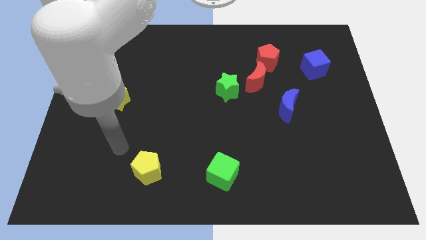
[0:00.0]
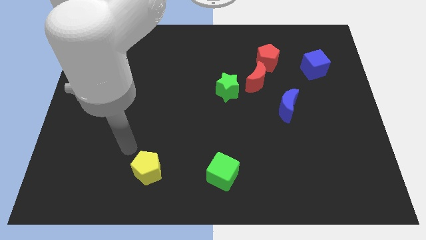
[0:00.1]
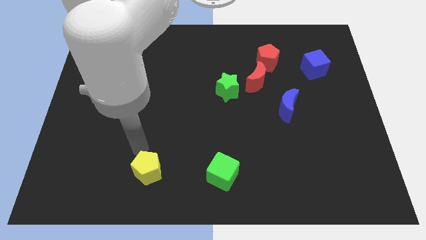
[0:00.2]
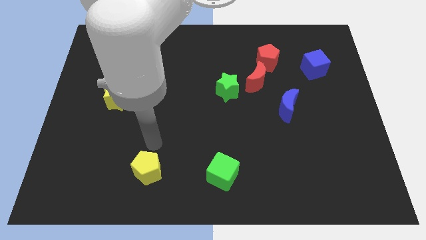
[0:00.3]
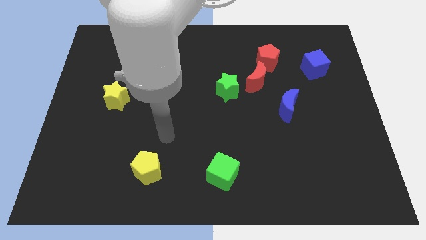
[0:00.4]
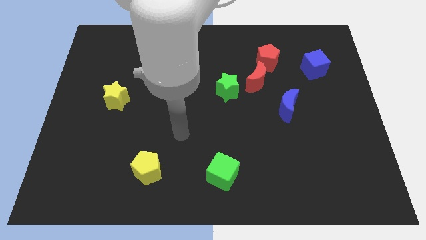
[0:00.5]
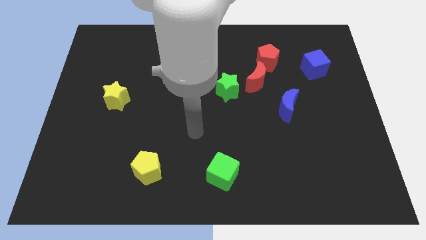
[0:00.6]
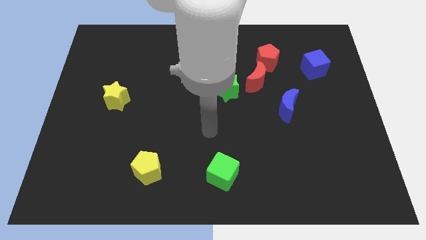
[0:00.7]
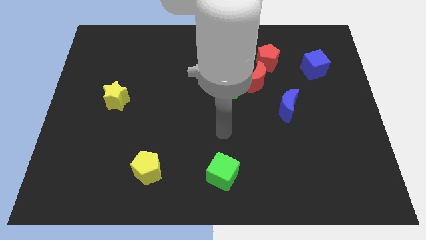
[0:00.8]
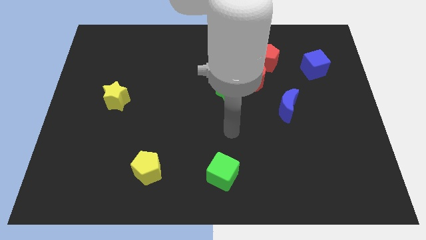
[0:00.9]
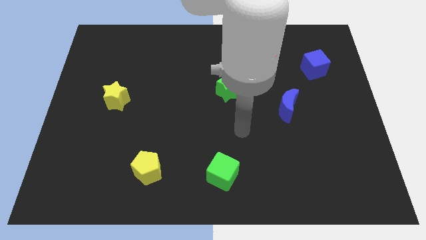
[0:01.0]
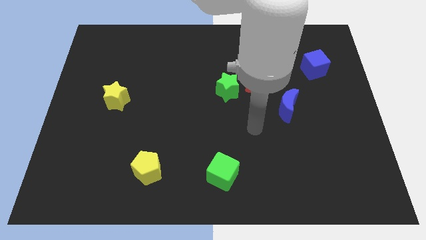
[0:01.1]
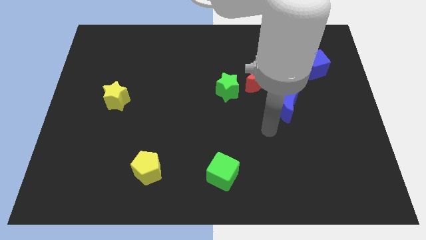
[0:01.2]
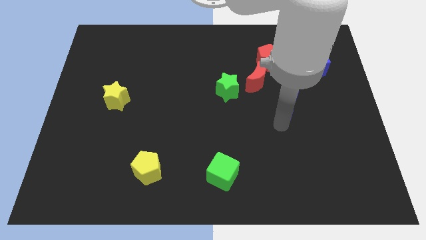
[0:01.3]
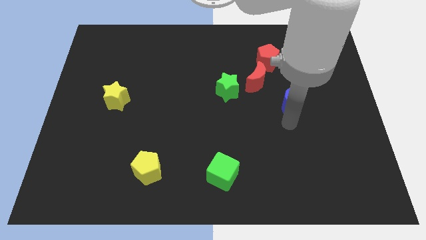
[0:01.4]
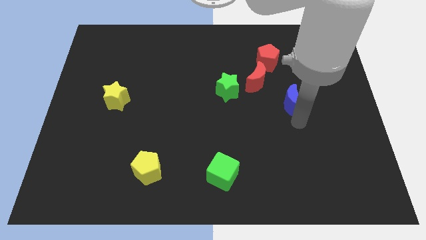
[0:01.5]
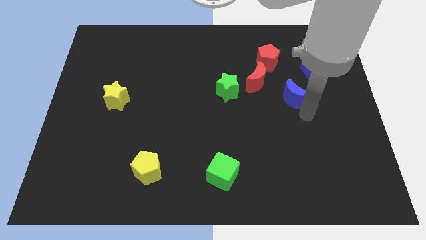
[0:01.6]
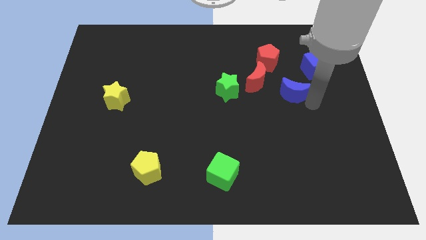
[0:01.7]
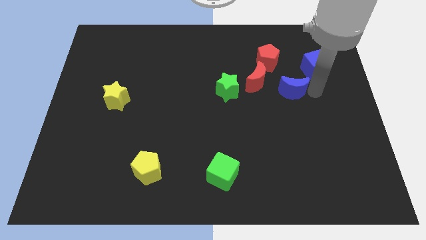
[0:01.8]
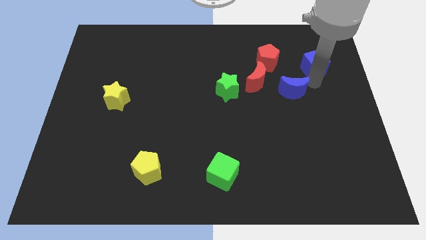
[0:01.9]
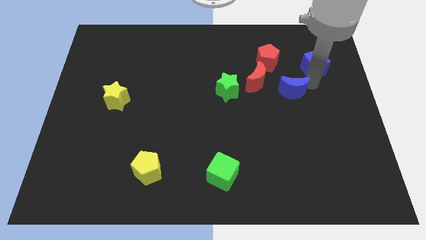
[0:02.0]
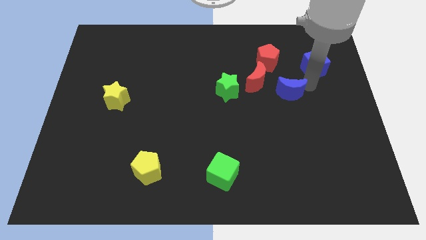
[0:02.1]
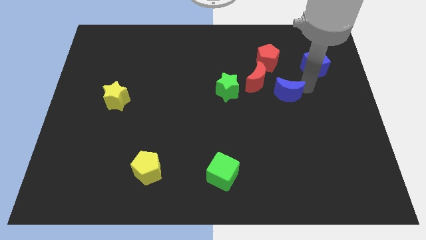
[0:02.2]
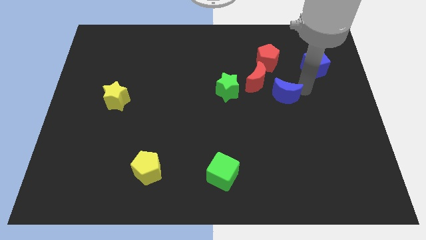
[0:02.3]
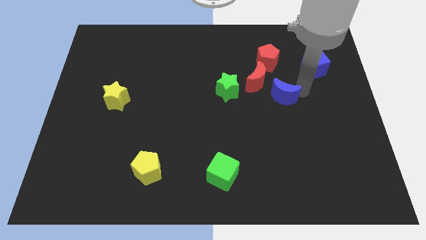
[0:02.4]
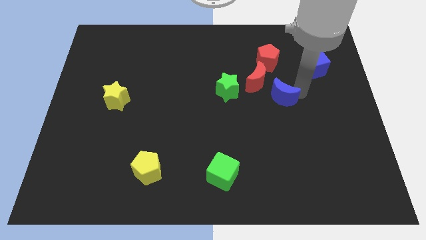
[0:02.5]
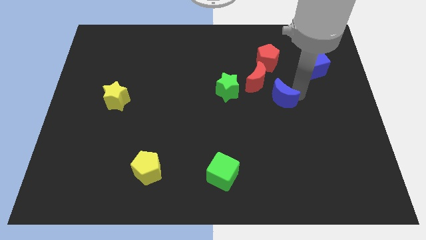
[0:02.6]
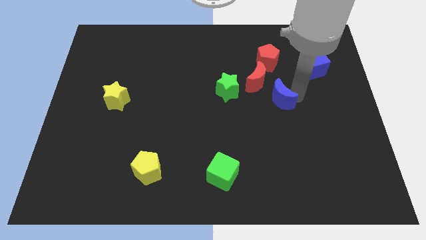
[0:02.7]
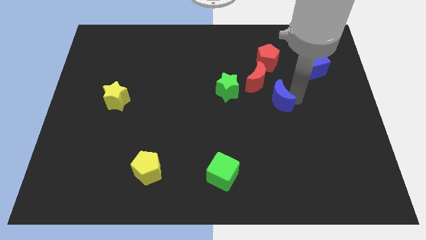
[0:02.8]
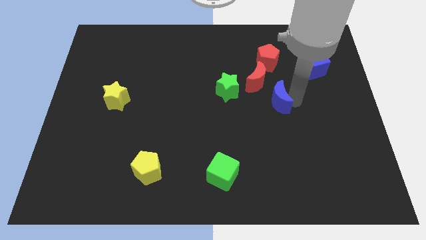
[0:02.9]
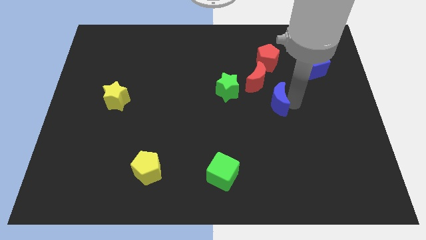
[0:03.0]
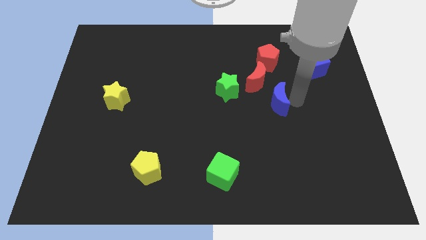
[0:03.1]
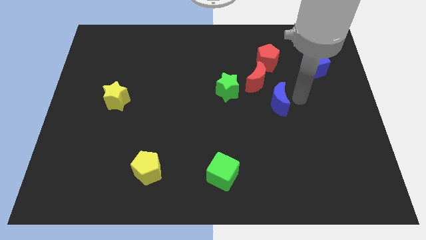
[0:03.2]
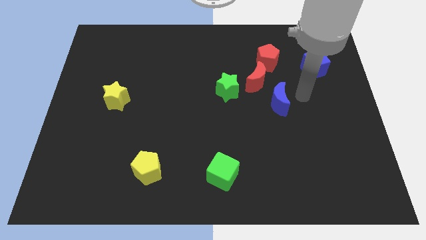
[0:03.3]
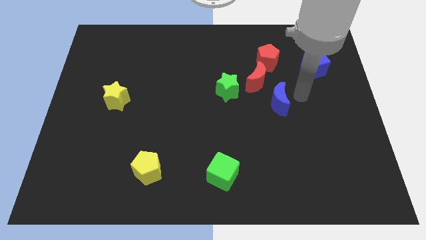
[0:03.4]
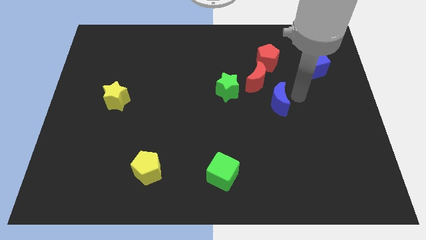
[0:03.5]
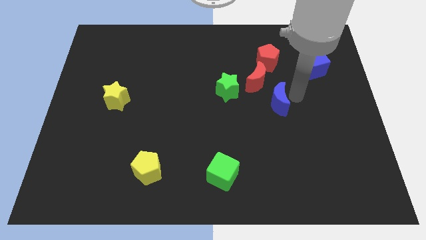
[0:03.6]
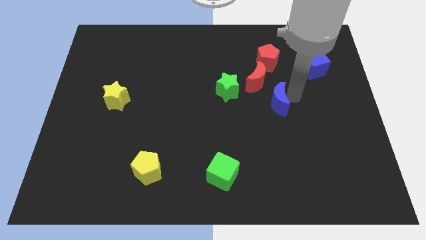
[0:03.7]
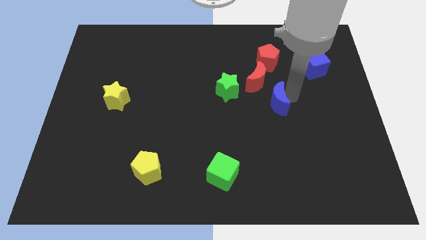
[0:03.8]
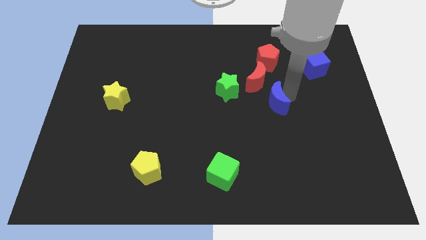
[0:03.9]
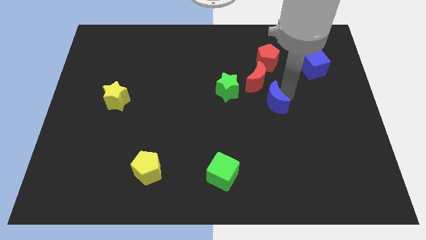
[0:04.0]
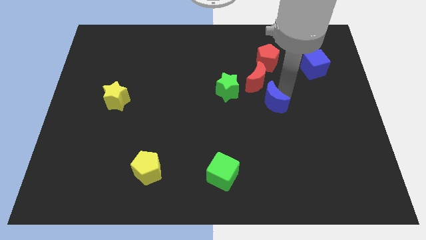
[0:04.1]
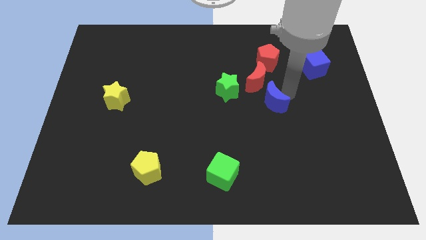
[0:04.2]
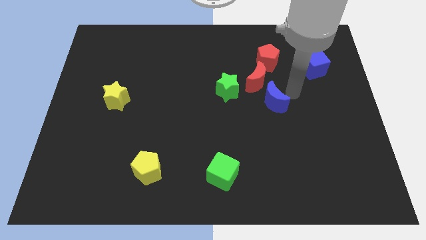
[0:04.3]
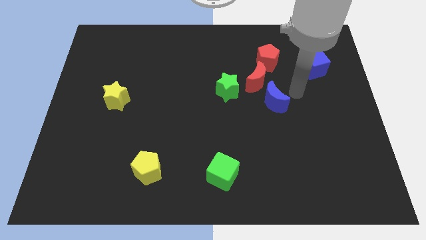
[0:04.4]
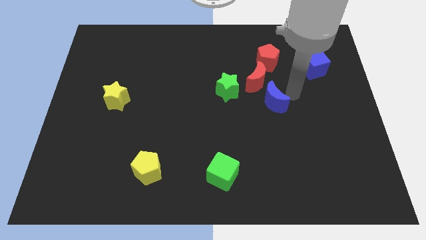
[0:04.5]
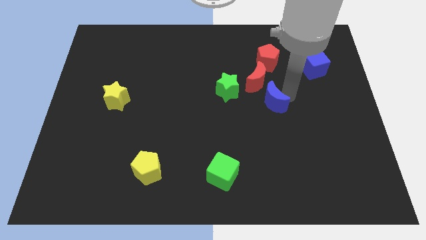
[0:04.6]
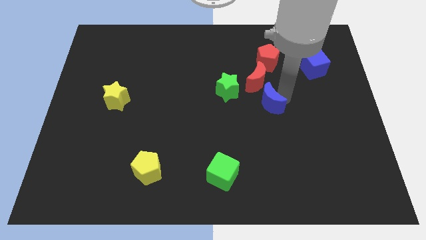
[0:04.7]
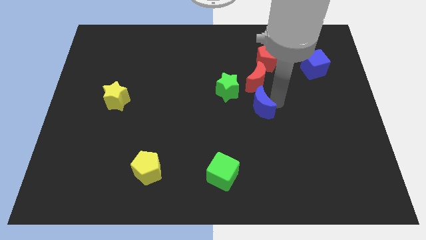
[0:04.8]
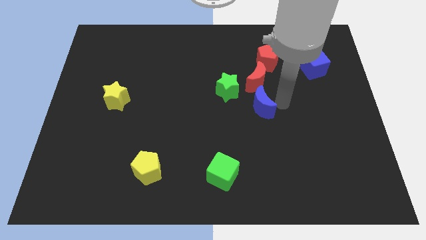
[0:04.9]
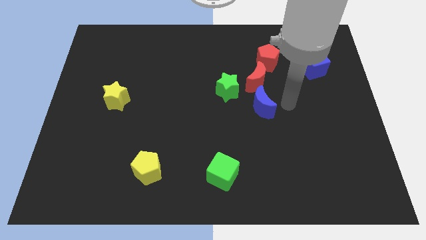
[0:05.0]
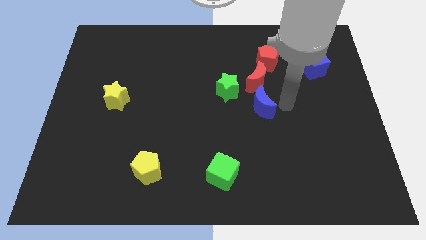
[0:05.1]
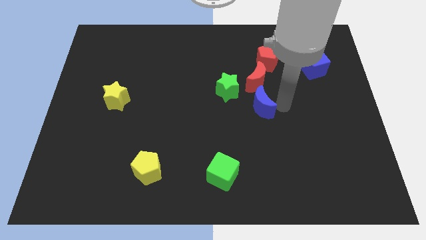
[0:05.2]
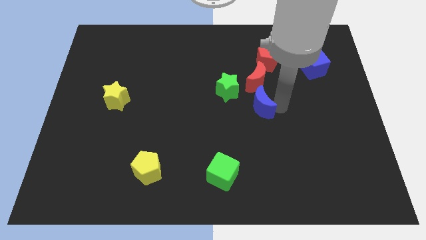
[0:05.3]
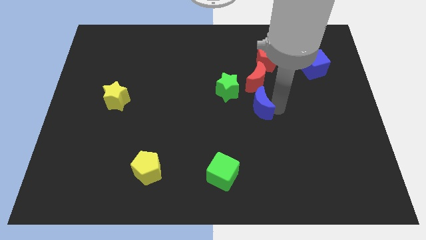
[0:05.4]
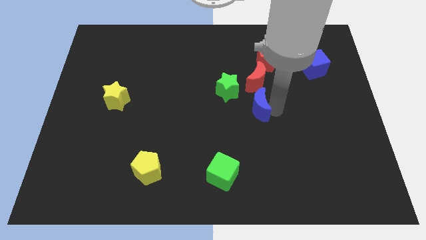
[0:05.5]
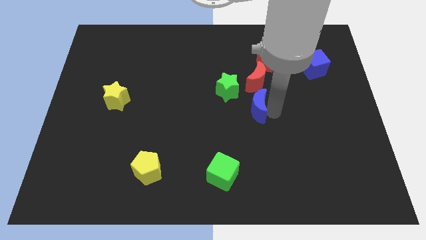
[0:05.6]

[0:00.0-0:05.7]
slide the blue moon a little to the left

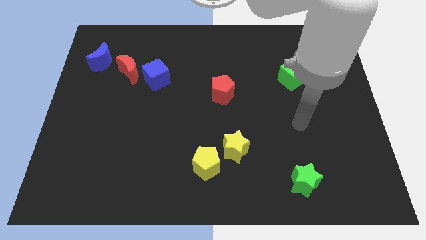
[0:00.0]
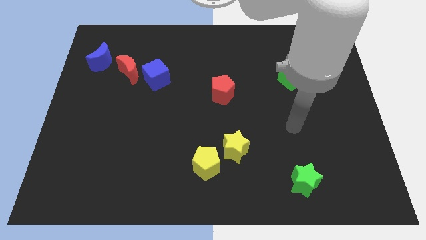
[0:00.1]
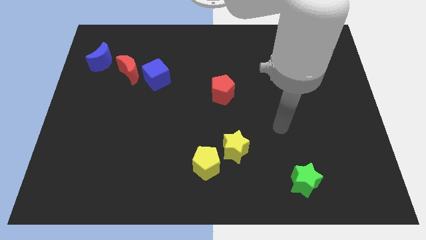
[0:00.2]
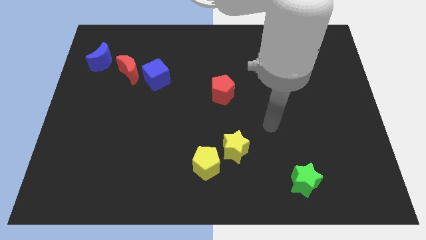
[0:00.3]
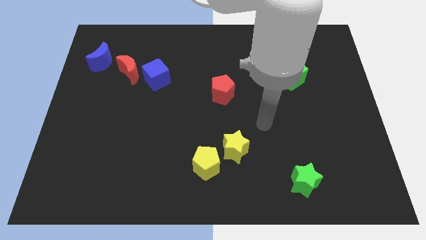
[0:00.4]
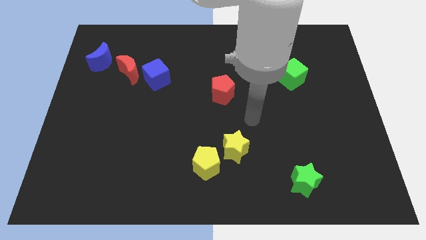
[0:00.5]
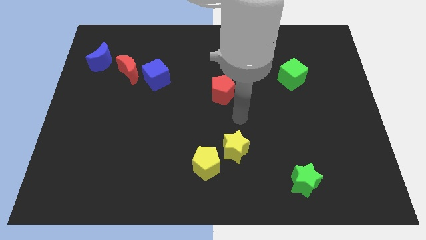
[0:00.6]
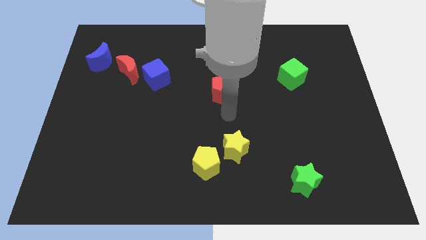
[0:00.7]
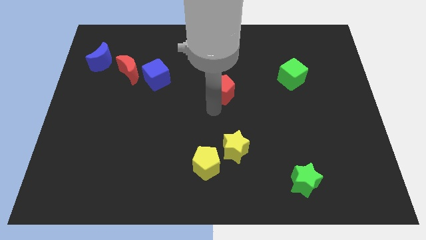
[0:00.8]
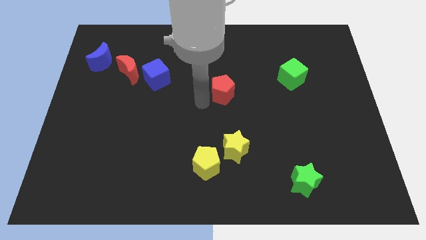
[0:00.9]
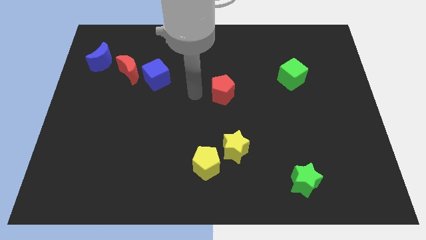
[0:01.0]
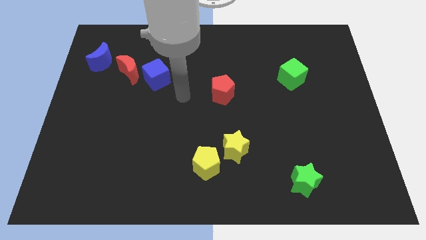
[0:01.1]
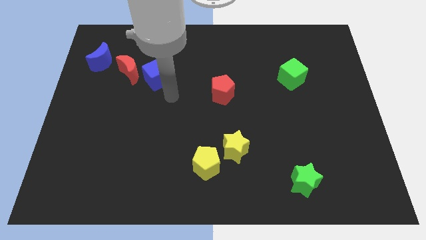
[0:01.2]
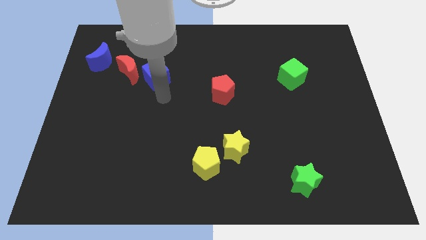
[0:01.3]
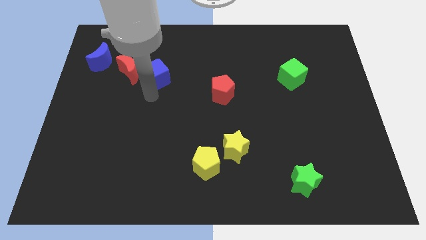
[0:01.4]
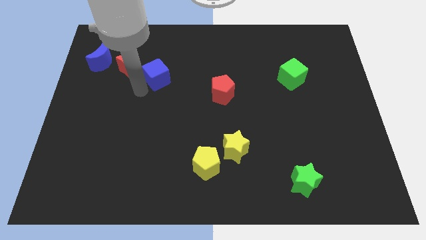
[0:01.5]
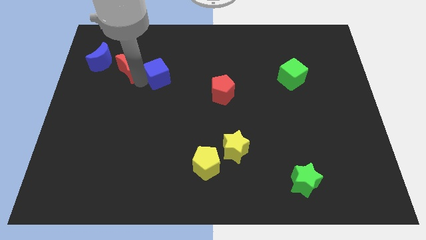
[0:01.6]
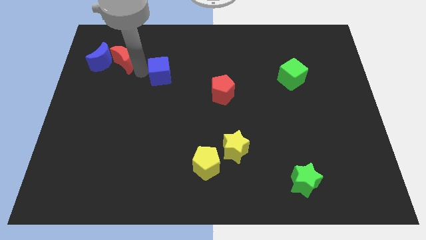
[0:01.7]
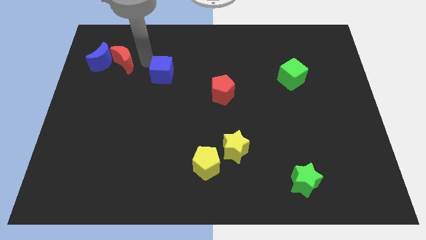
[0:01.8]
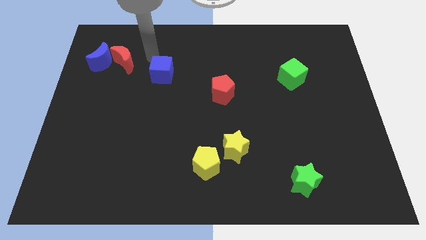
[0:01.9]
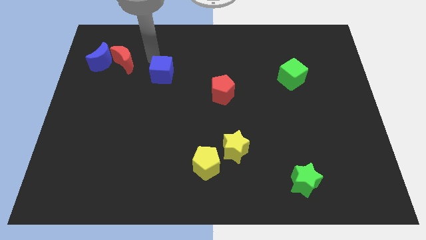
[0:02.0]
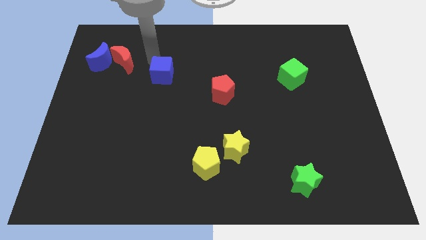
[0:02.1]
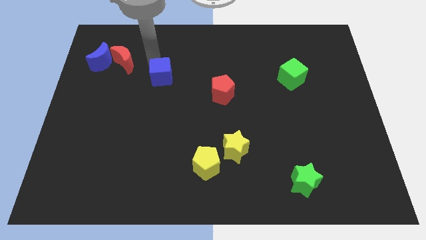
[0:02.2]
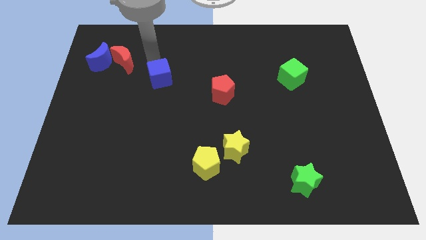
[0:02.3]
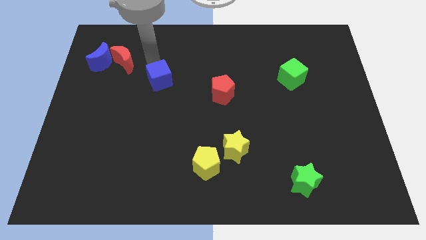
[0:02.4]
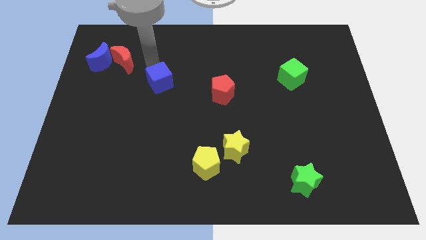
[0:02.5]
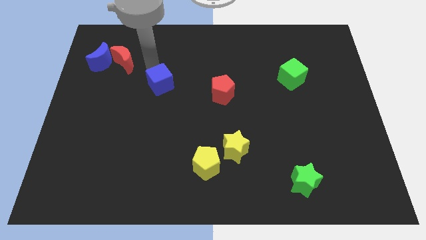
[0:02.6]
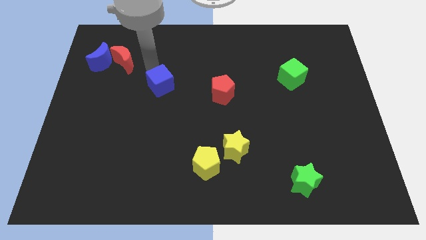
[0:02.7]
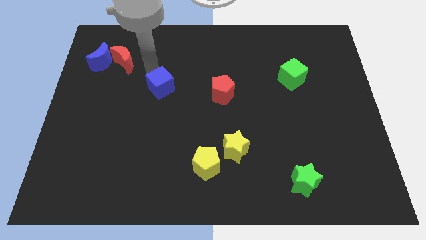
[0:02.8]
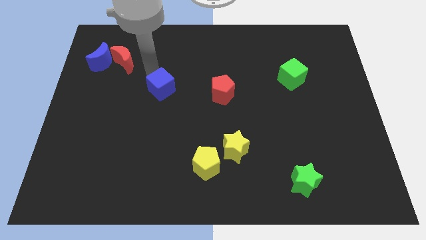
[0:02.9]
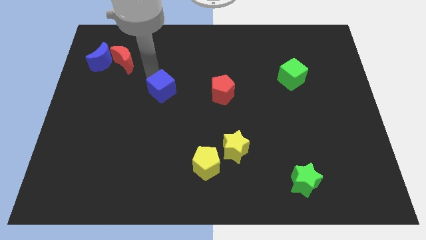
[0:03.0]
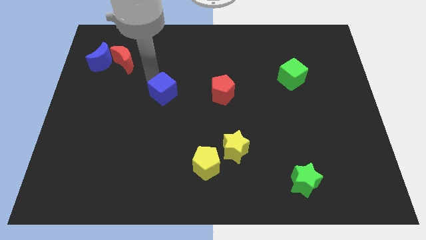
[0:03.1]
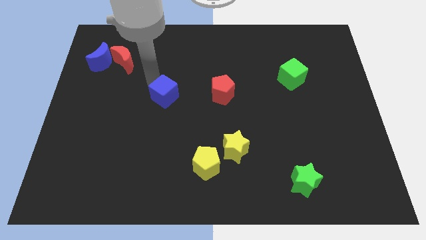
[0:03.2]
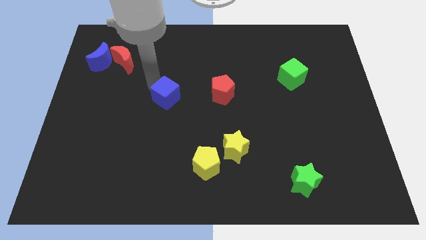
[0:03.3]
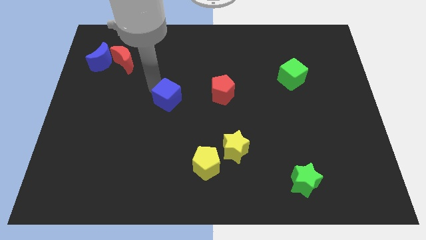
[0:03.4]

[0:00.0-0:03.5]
slide the blue cube a little downwards and right
